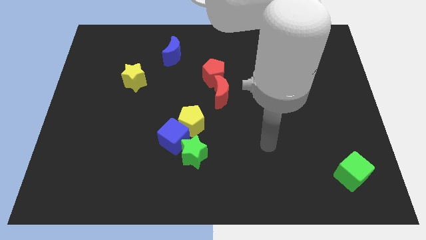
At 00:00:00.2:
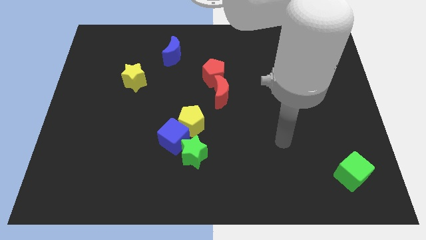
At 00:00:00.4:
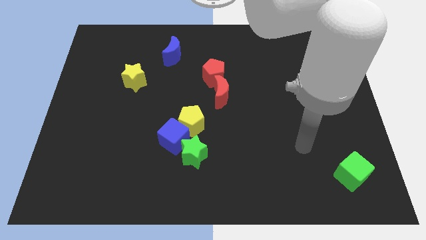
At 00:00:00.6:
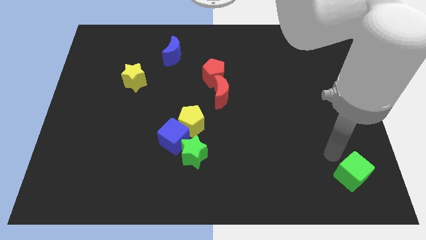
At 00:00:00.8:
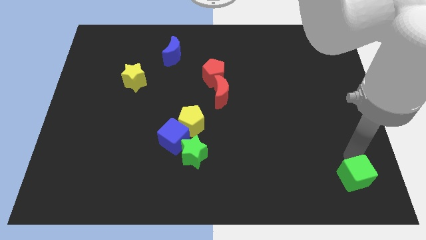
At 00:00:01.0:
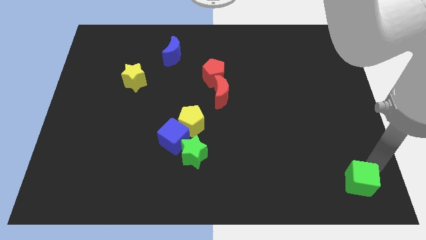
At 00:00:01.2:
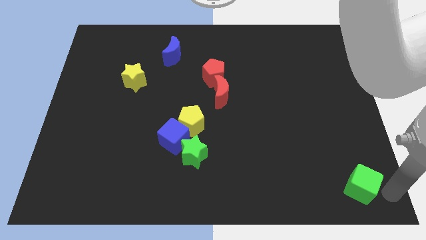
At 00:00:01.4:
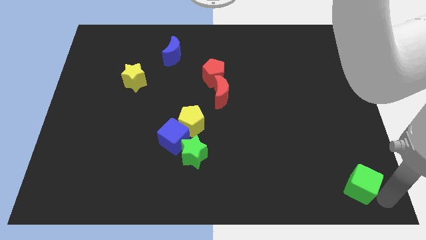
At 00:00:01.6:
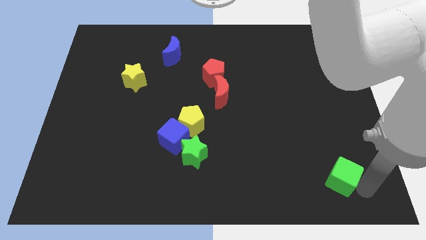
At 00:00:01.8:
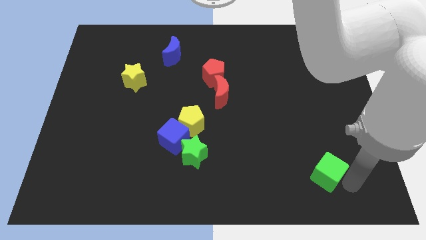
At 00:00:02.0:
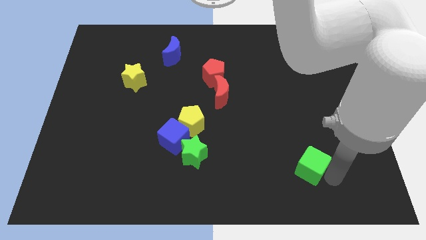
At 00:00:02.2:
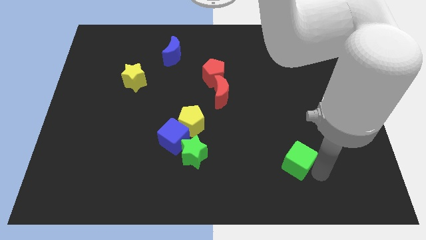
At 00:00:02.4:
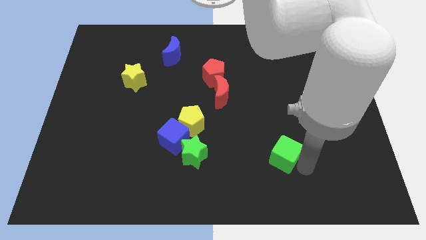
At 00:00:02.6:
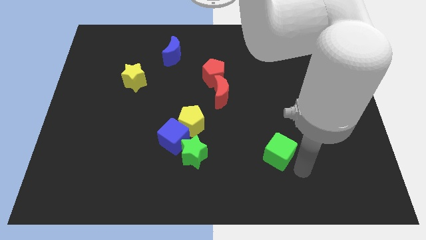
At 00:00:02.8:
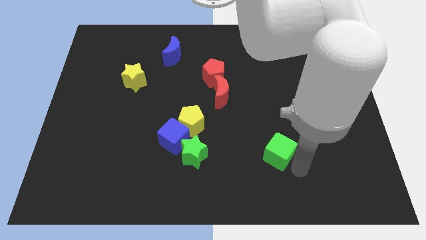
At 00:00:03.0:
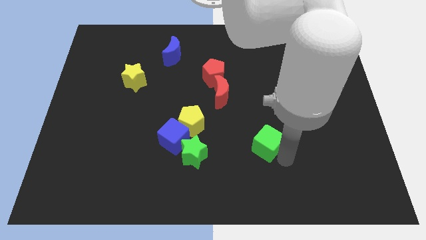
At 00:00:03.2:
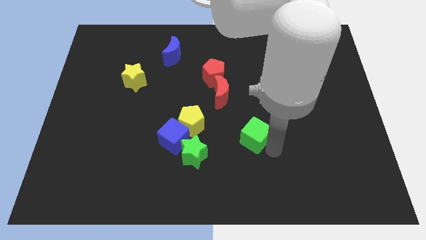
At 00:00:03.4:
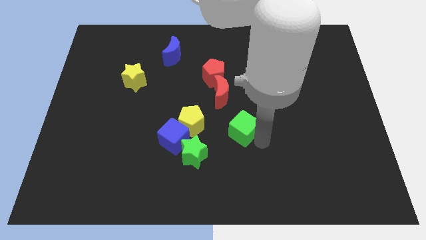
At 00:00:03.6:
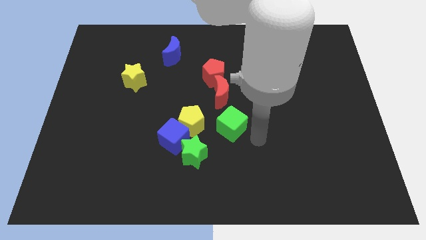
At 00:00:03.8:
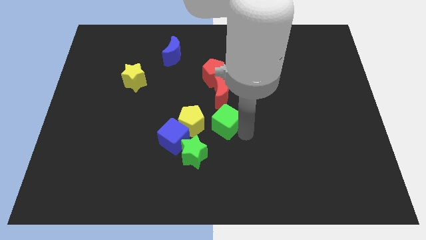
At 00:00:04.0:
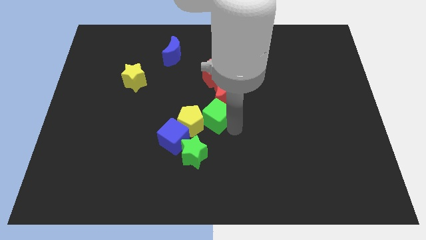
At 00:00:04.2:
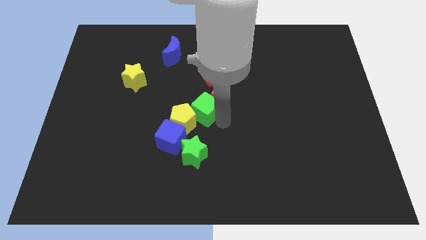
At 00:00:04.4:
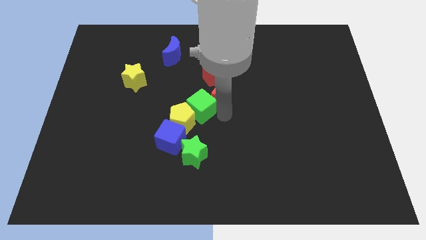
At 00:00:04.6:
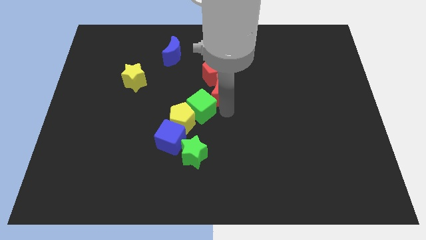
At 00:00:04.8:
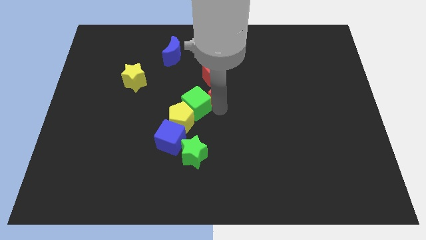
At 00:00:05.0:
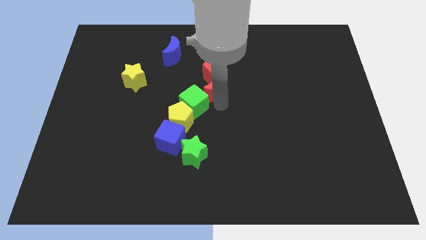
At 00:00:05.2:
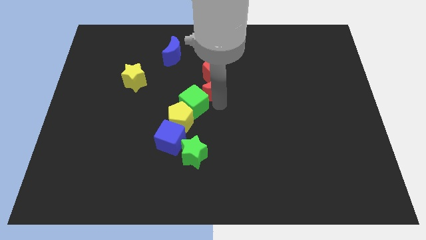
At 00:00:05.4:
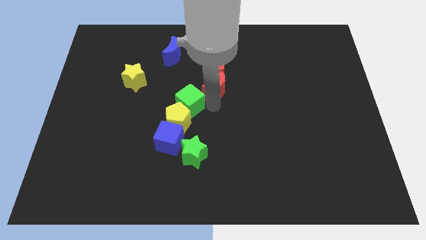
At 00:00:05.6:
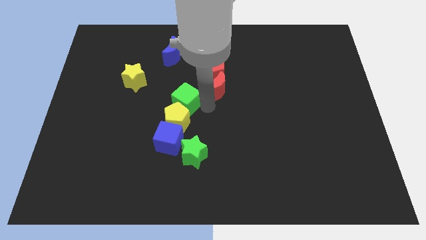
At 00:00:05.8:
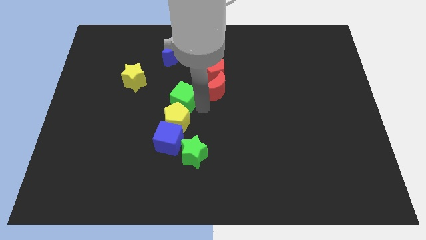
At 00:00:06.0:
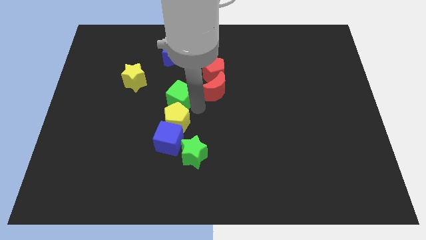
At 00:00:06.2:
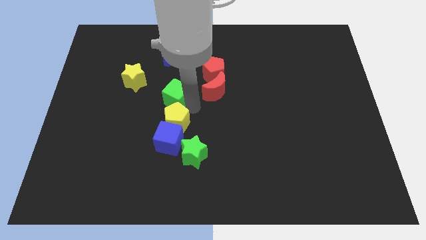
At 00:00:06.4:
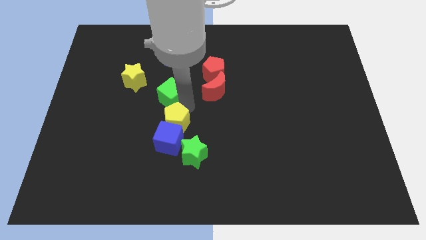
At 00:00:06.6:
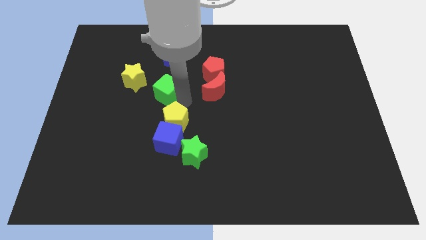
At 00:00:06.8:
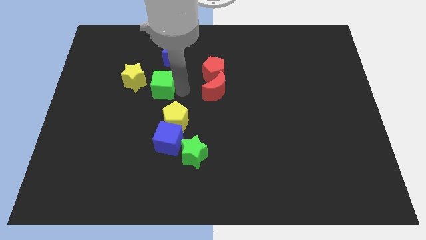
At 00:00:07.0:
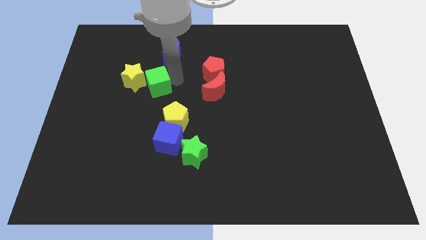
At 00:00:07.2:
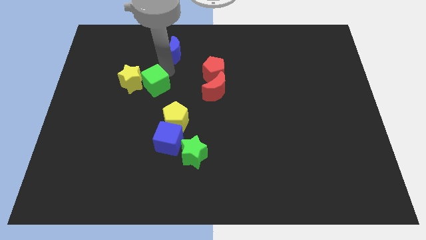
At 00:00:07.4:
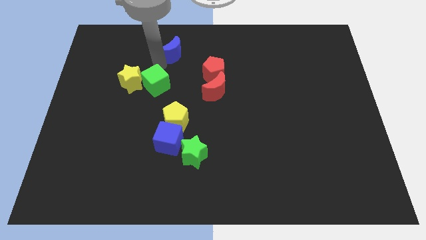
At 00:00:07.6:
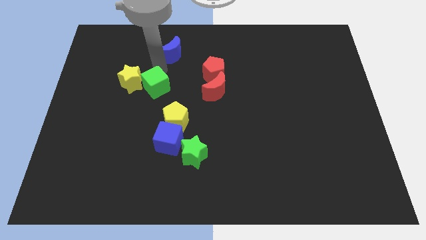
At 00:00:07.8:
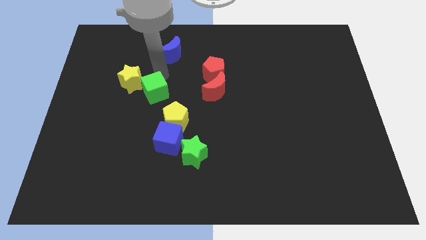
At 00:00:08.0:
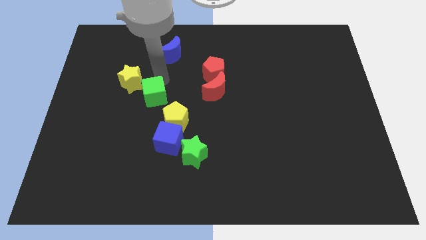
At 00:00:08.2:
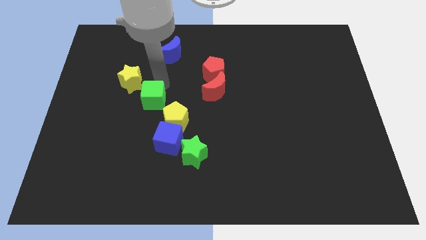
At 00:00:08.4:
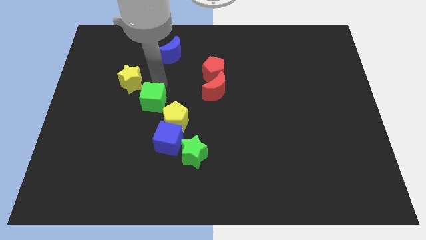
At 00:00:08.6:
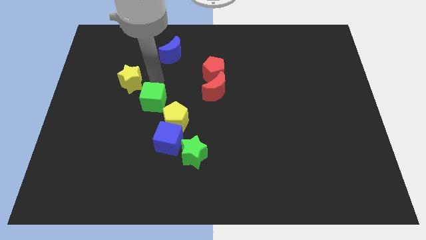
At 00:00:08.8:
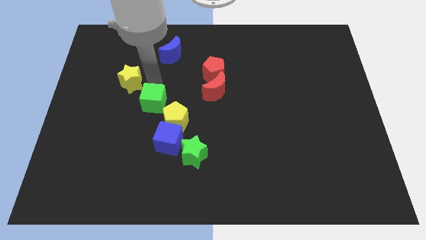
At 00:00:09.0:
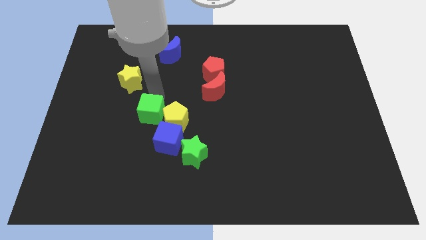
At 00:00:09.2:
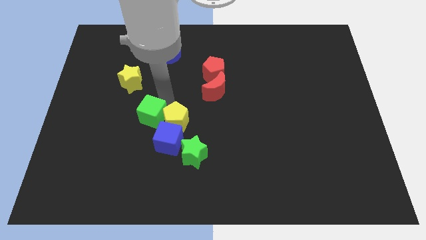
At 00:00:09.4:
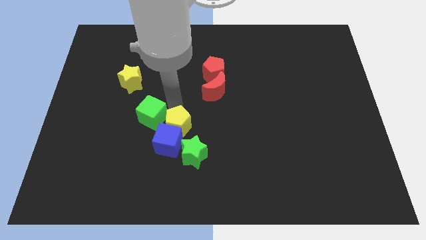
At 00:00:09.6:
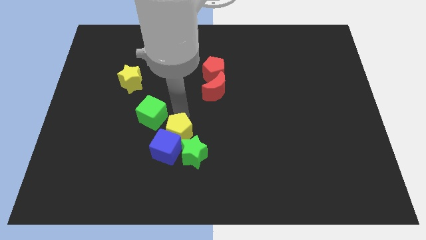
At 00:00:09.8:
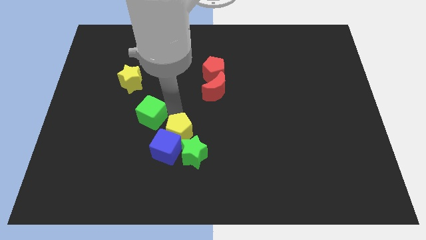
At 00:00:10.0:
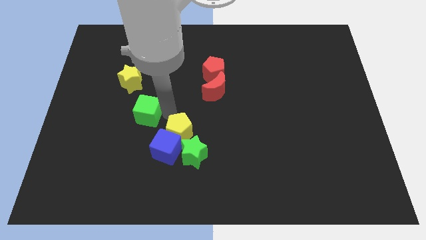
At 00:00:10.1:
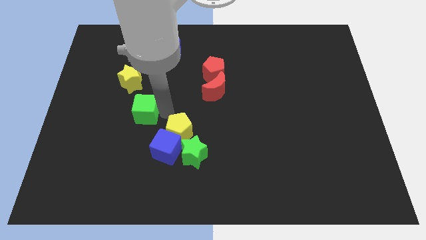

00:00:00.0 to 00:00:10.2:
move the green cube to the bottom side of the yellow star

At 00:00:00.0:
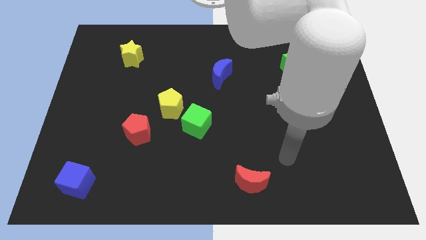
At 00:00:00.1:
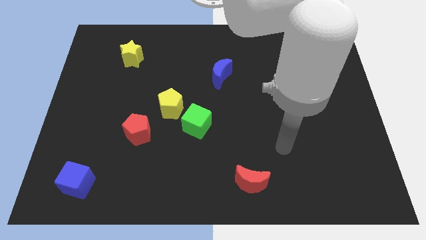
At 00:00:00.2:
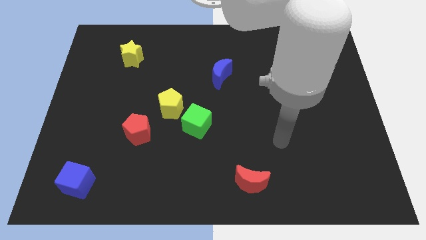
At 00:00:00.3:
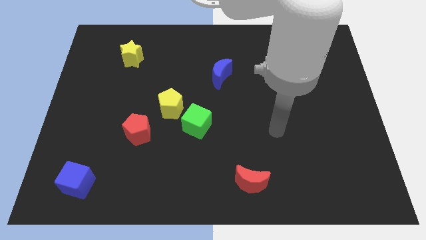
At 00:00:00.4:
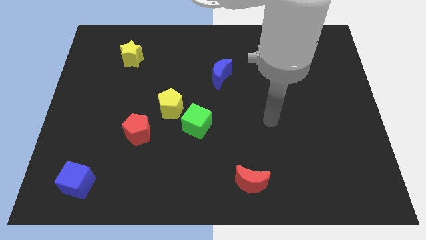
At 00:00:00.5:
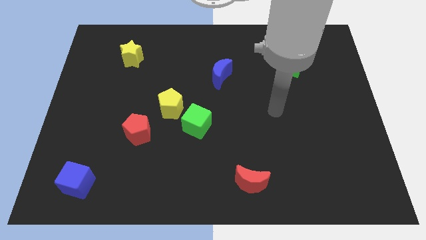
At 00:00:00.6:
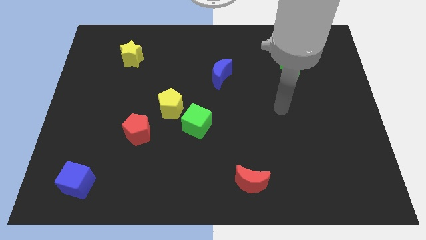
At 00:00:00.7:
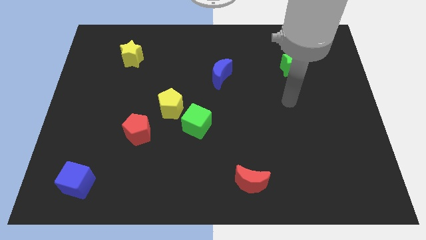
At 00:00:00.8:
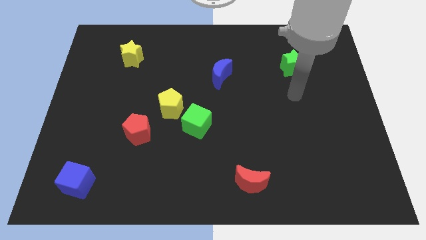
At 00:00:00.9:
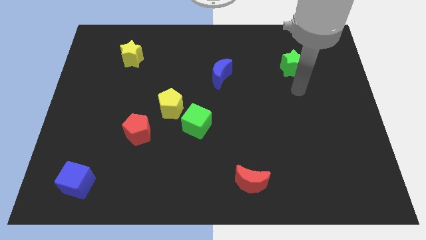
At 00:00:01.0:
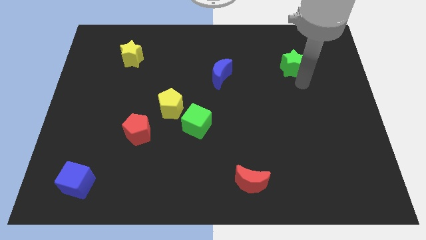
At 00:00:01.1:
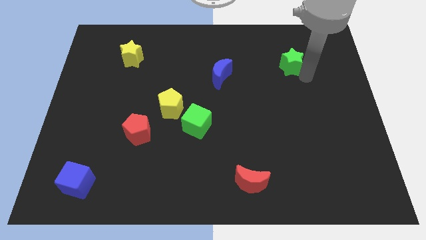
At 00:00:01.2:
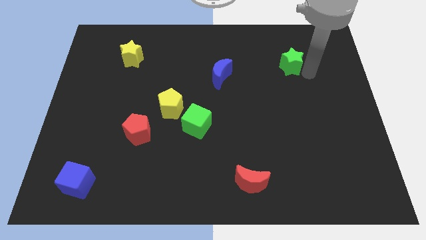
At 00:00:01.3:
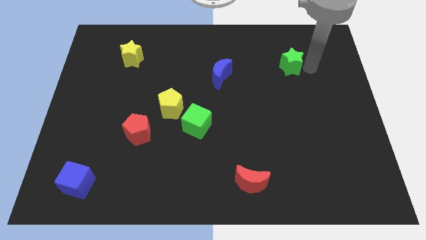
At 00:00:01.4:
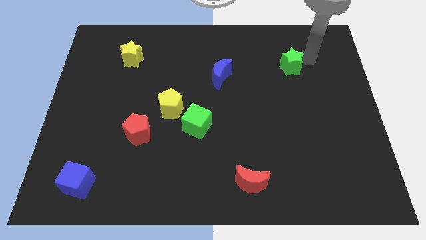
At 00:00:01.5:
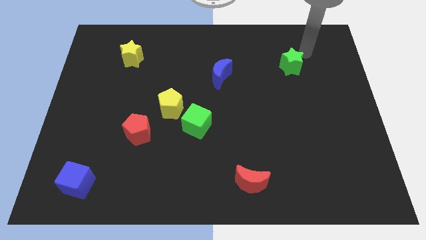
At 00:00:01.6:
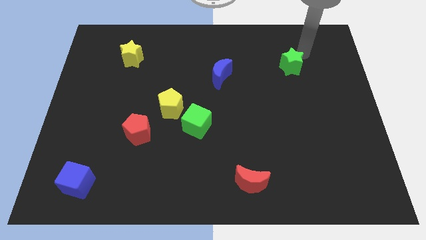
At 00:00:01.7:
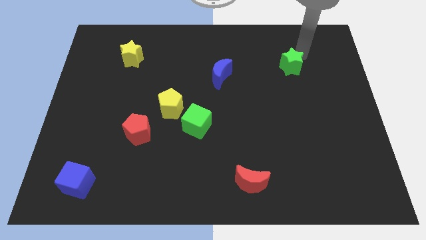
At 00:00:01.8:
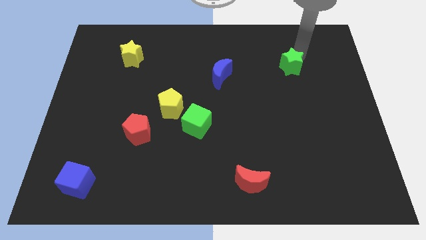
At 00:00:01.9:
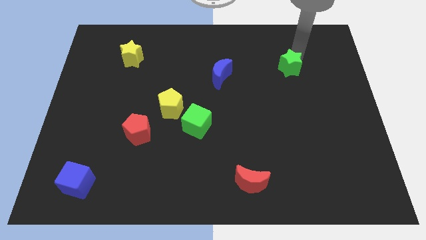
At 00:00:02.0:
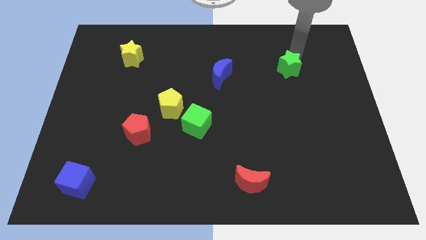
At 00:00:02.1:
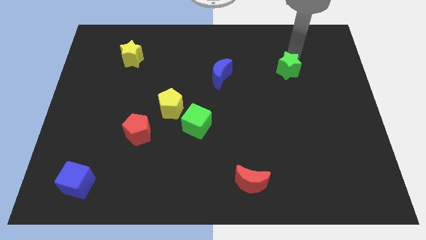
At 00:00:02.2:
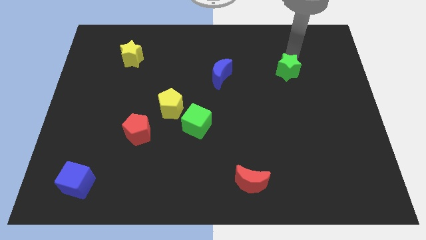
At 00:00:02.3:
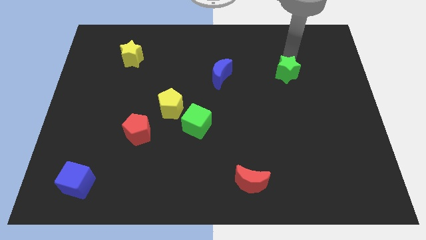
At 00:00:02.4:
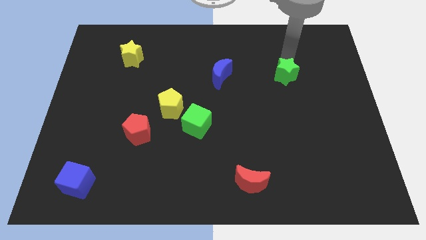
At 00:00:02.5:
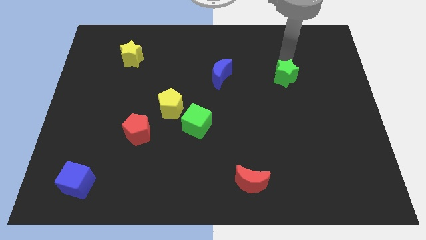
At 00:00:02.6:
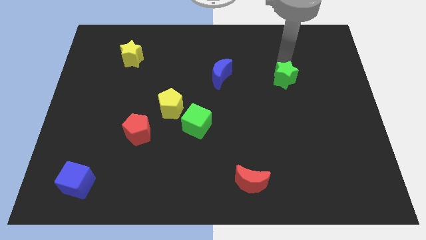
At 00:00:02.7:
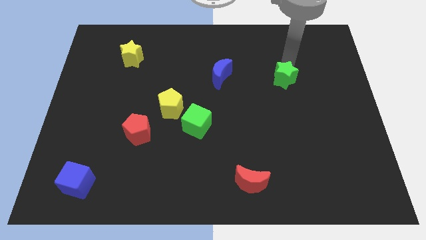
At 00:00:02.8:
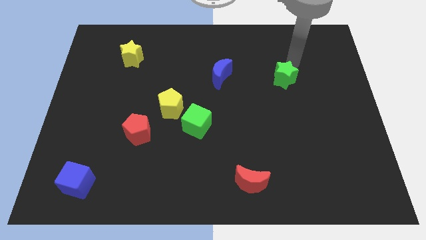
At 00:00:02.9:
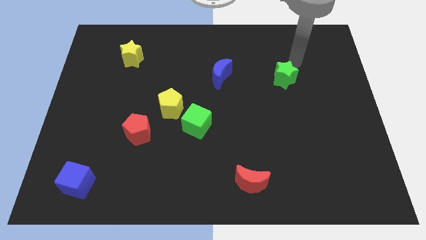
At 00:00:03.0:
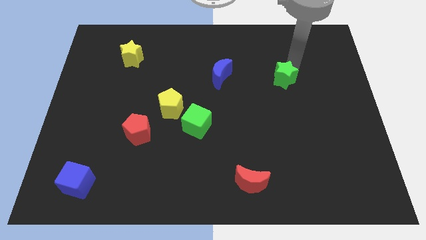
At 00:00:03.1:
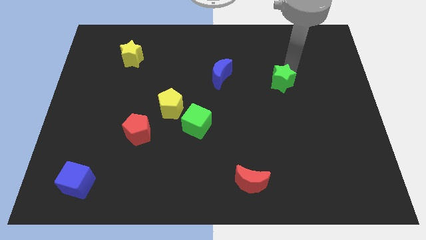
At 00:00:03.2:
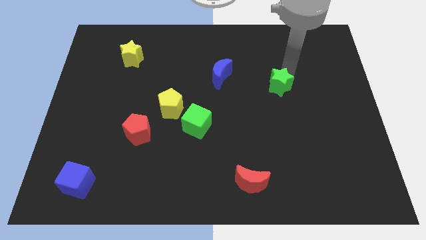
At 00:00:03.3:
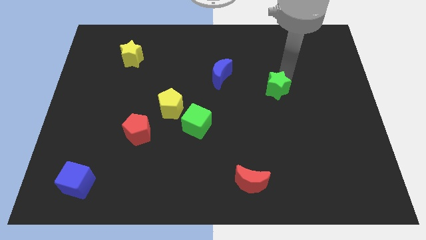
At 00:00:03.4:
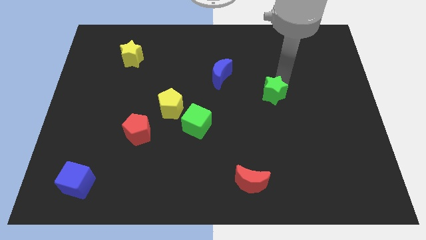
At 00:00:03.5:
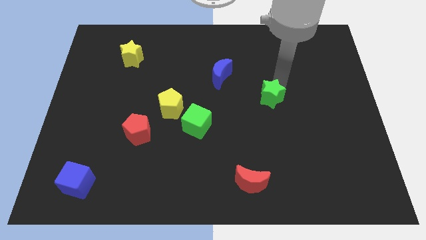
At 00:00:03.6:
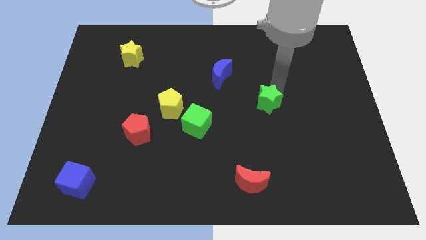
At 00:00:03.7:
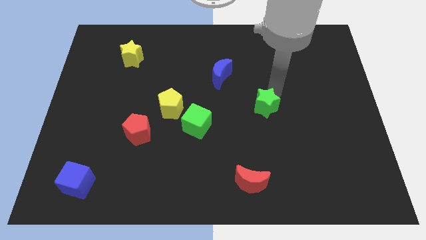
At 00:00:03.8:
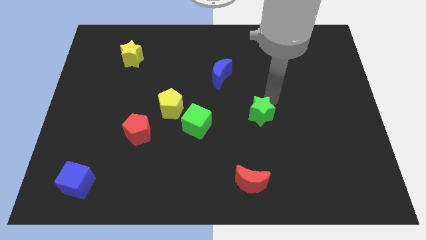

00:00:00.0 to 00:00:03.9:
put the green star to the right side of the green cube
